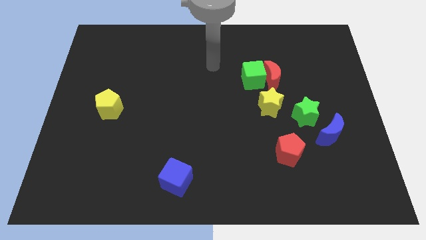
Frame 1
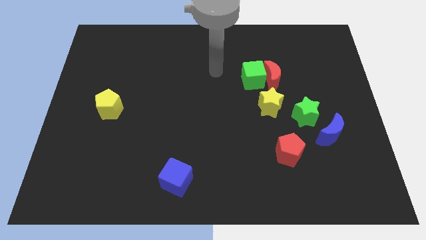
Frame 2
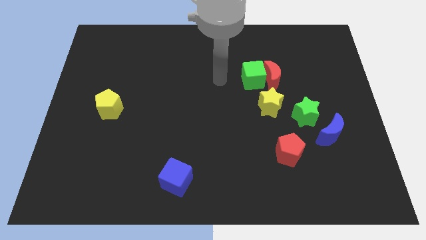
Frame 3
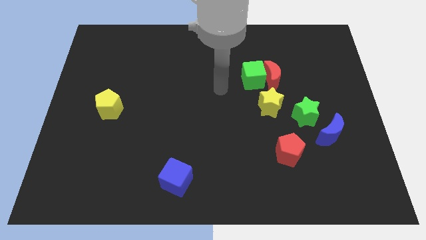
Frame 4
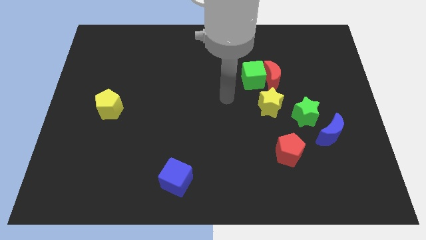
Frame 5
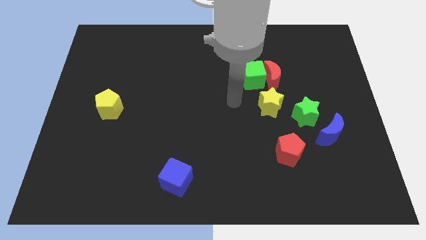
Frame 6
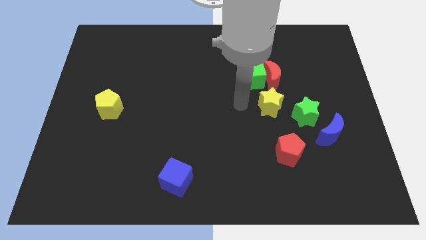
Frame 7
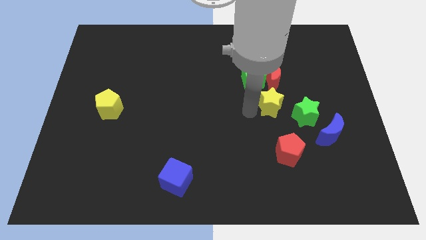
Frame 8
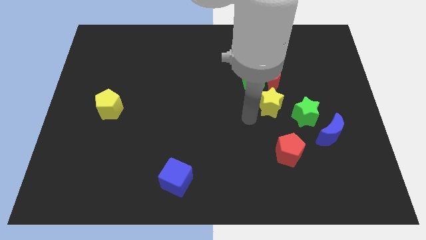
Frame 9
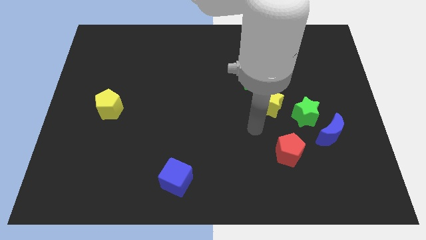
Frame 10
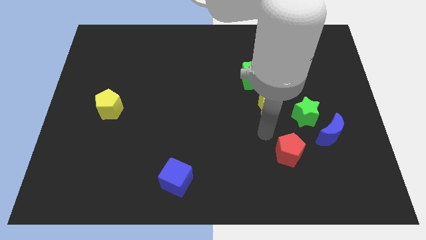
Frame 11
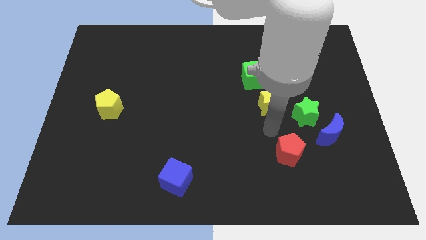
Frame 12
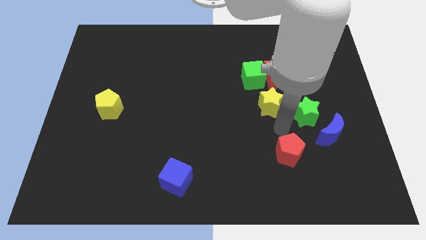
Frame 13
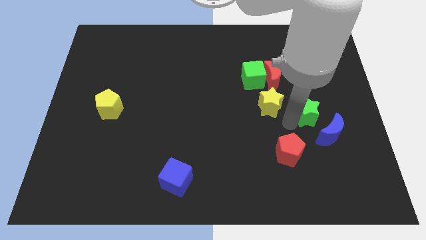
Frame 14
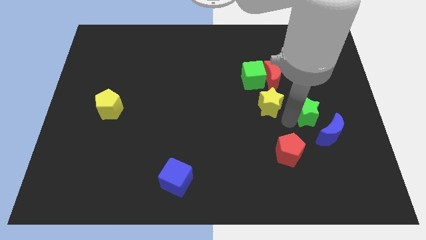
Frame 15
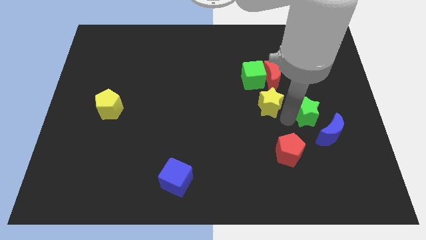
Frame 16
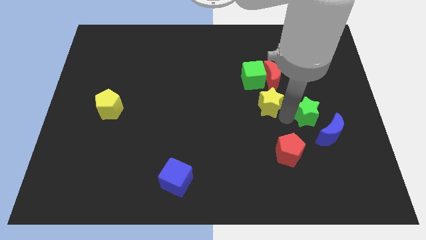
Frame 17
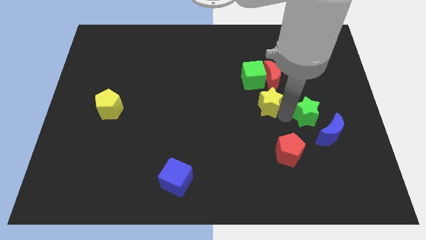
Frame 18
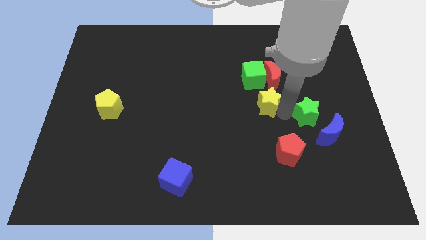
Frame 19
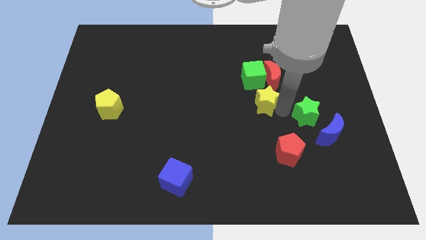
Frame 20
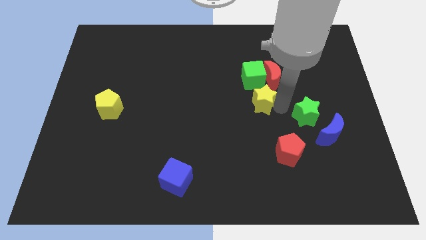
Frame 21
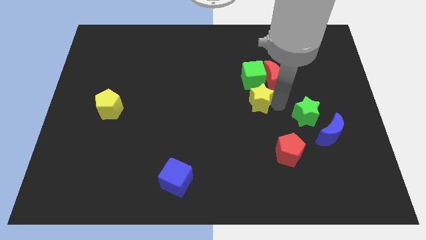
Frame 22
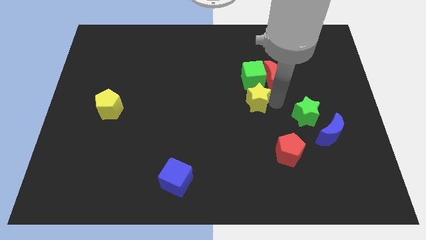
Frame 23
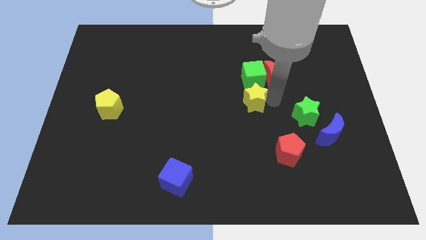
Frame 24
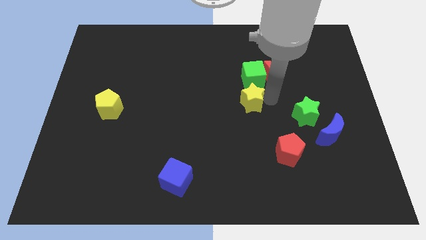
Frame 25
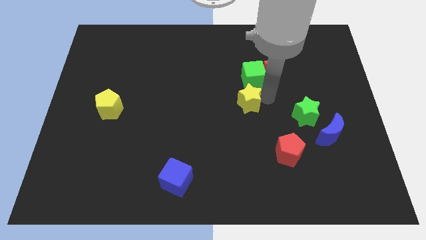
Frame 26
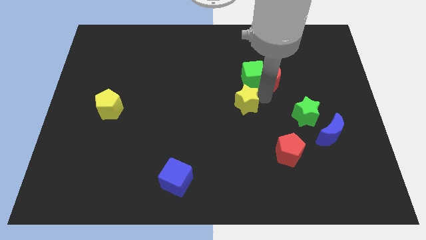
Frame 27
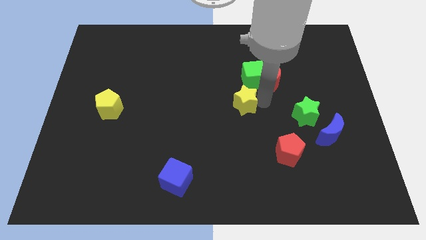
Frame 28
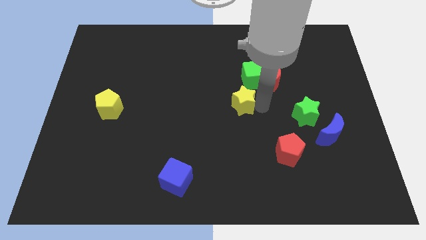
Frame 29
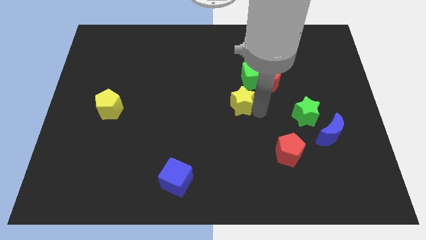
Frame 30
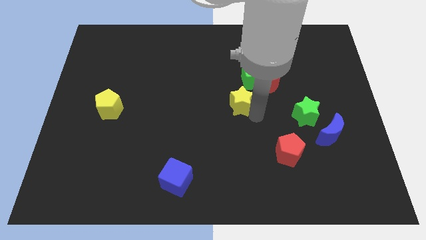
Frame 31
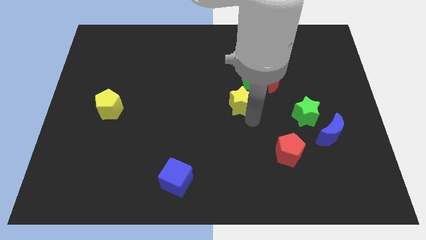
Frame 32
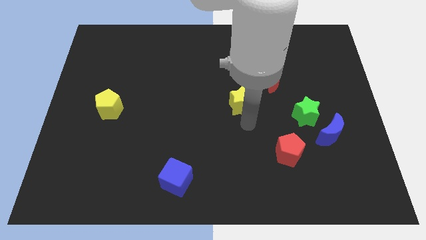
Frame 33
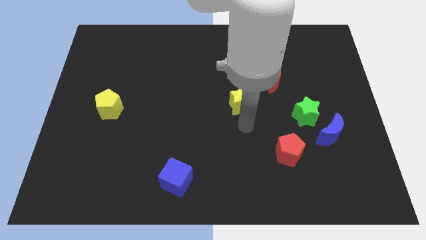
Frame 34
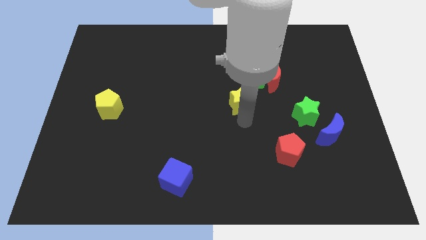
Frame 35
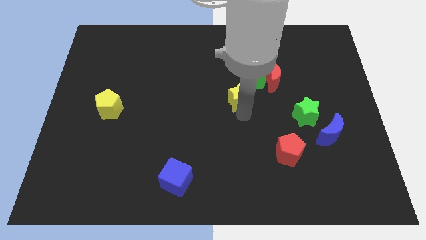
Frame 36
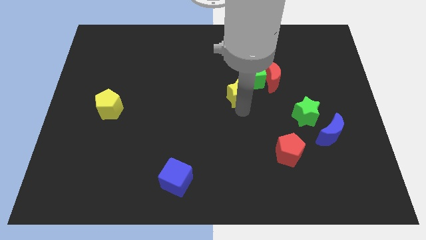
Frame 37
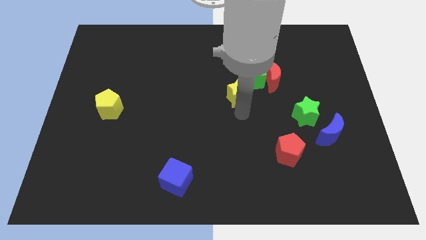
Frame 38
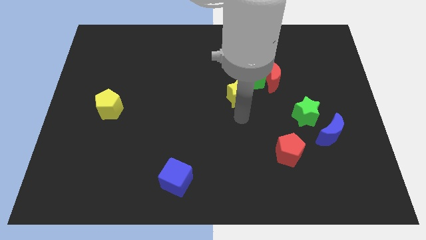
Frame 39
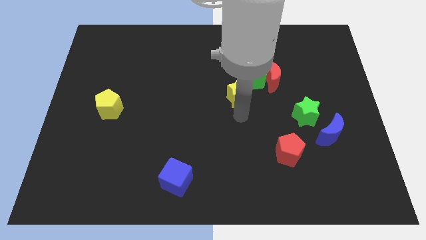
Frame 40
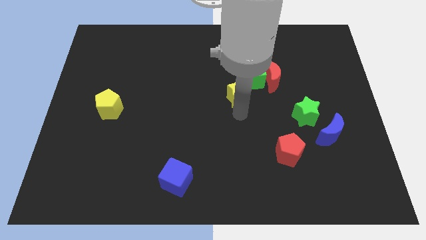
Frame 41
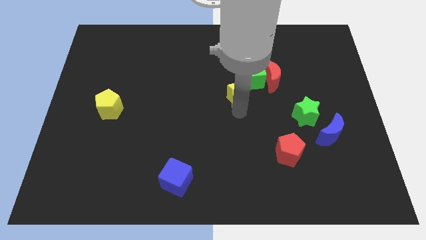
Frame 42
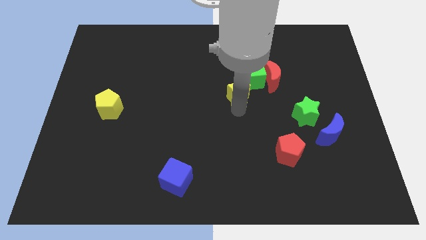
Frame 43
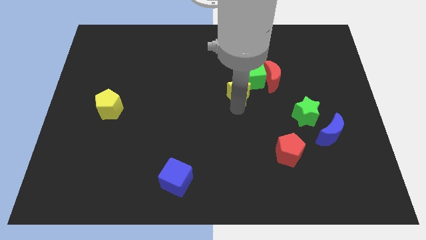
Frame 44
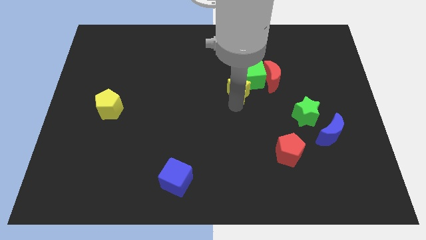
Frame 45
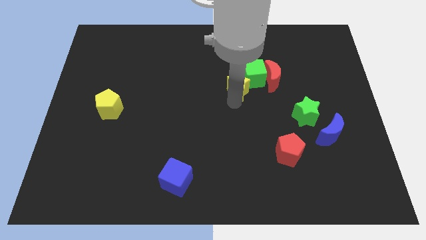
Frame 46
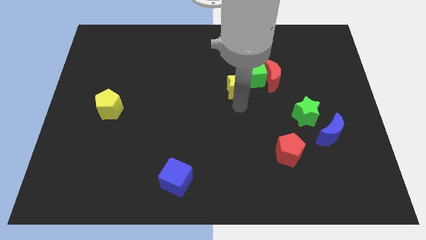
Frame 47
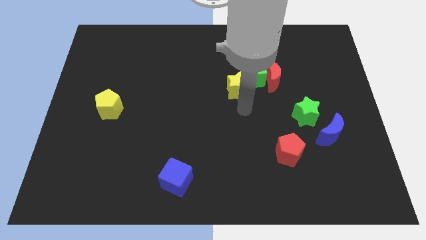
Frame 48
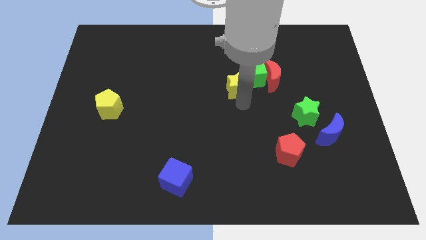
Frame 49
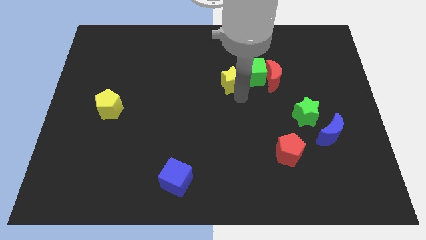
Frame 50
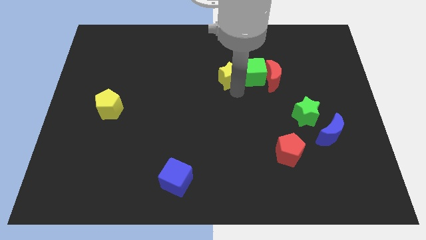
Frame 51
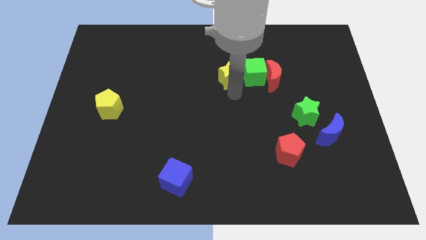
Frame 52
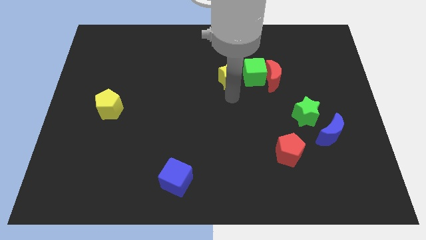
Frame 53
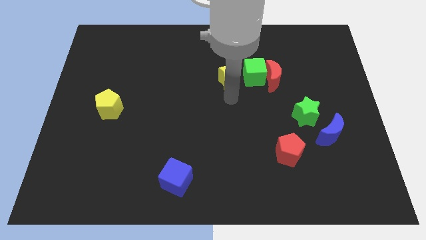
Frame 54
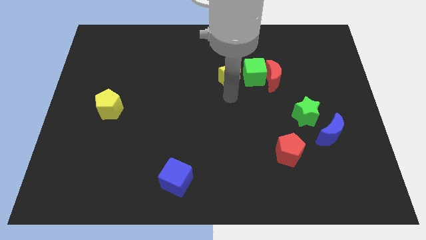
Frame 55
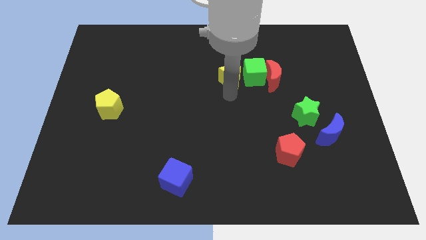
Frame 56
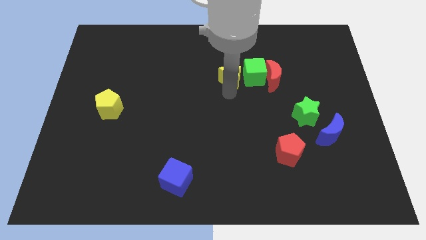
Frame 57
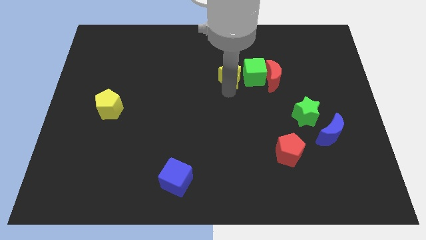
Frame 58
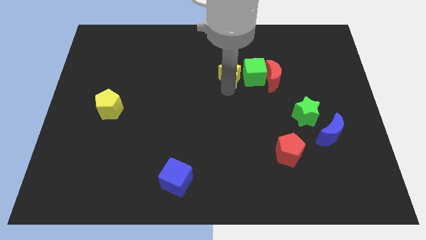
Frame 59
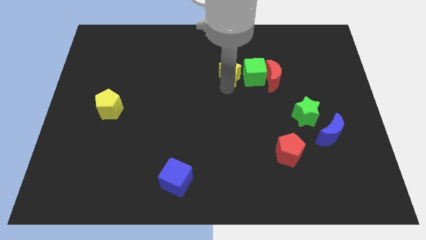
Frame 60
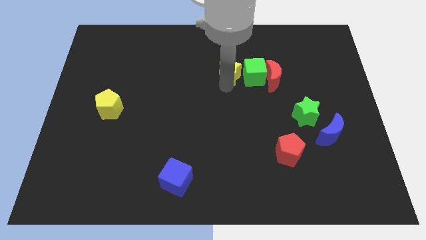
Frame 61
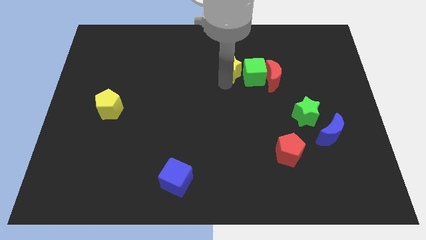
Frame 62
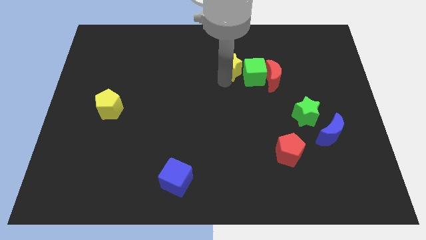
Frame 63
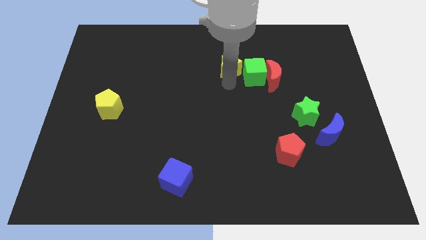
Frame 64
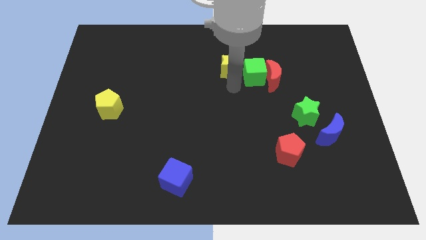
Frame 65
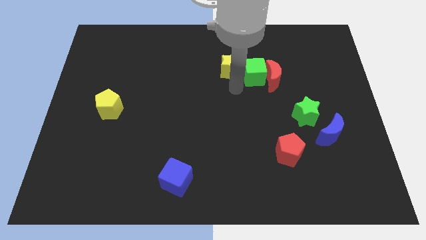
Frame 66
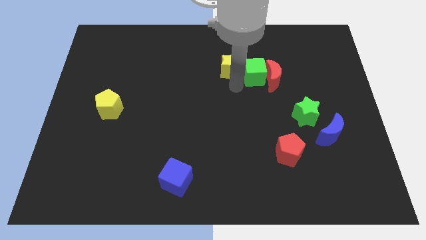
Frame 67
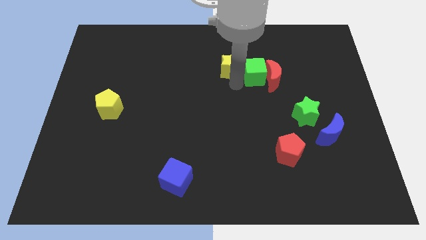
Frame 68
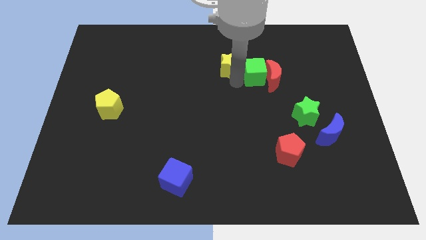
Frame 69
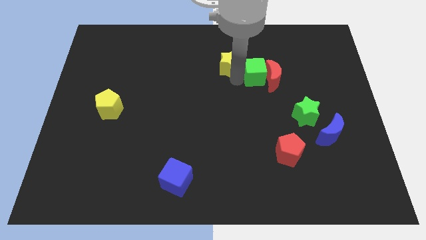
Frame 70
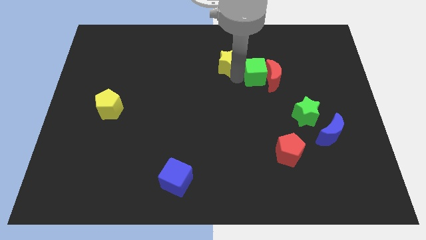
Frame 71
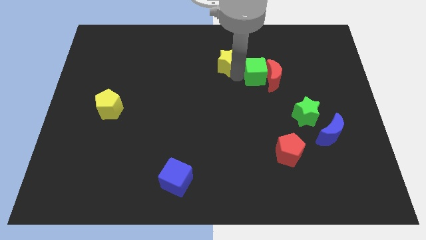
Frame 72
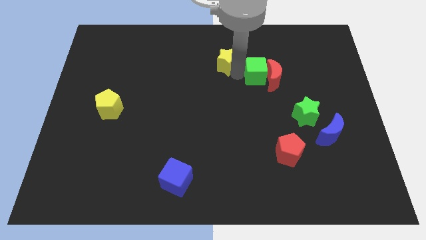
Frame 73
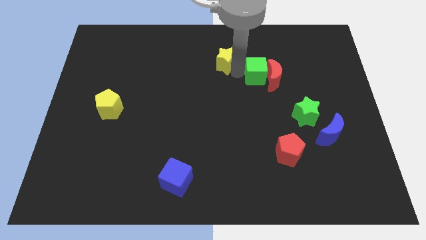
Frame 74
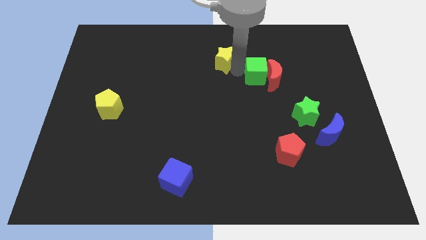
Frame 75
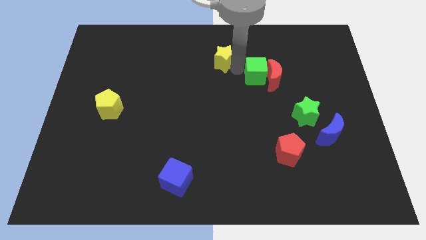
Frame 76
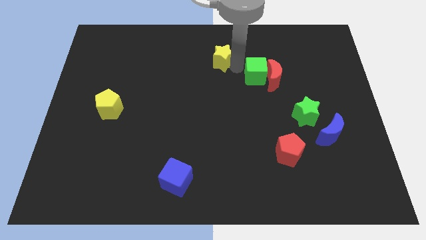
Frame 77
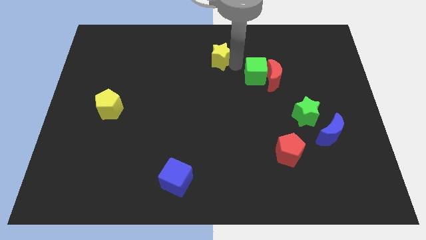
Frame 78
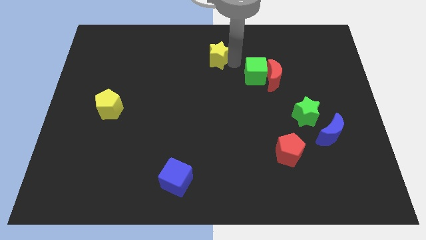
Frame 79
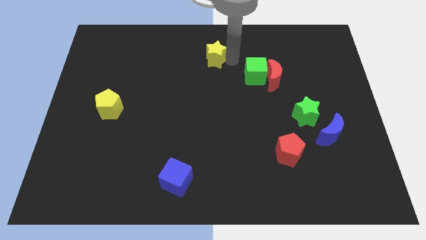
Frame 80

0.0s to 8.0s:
slide the yellow star to the towards your base
